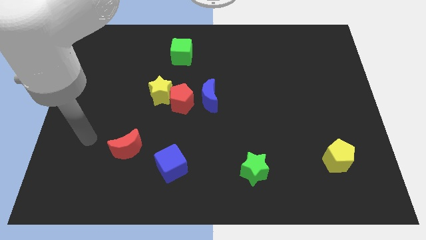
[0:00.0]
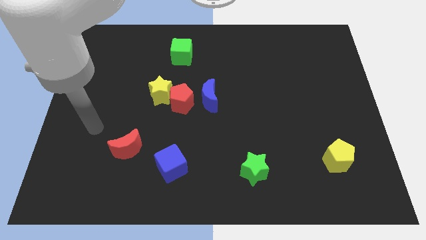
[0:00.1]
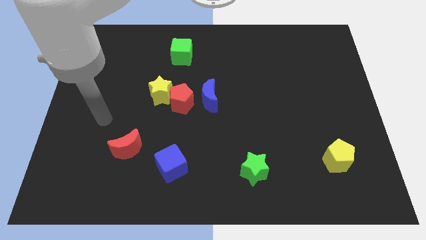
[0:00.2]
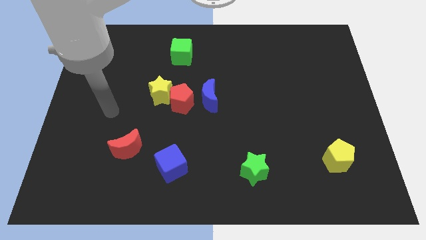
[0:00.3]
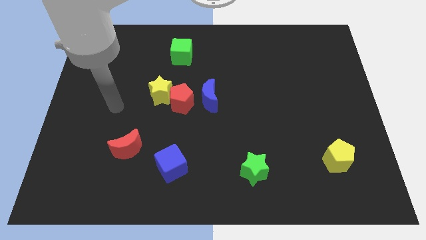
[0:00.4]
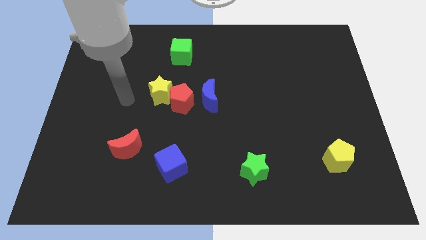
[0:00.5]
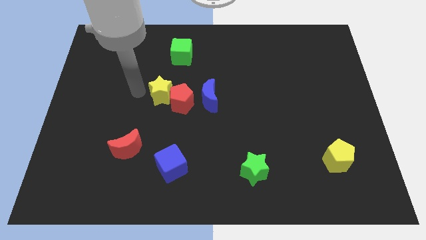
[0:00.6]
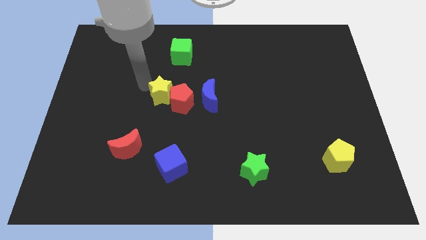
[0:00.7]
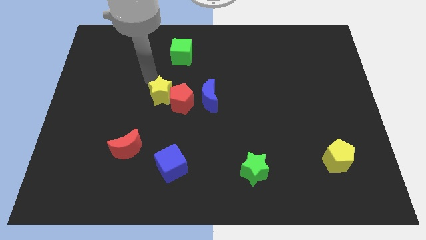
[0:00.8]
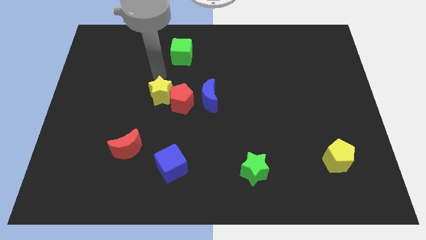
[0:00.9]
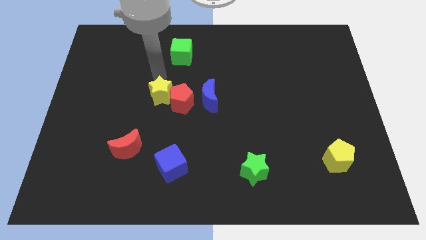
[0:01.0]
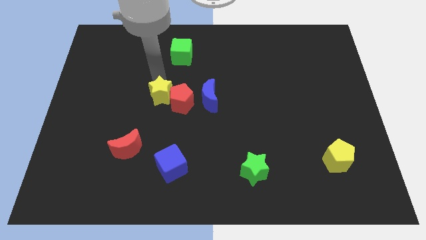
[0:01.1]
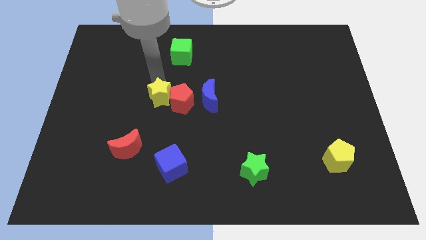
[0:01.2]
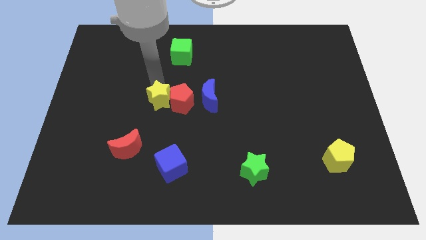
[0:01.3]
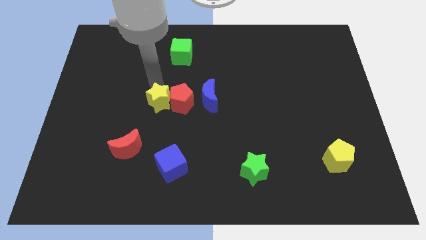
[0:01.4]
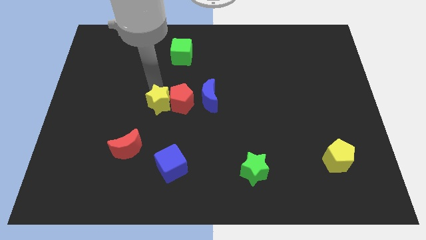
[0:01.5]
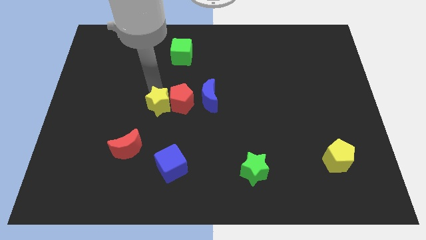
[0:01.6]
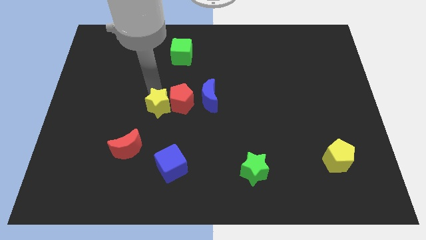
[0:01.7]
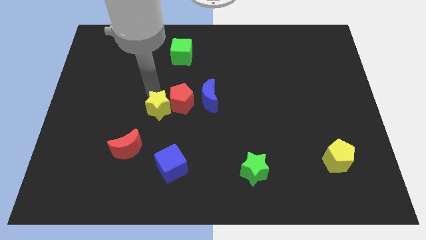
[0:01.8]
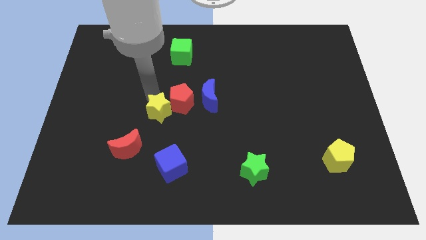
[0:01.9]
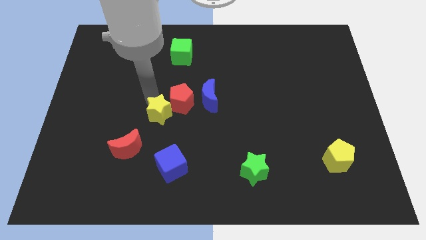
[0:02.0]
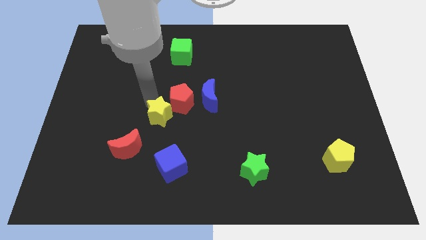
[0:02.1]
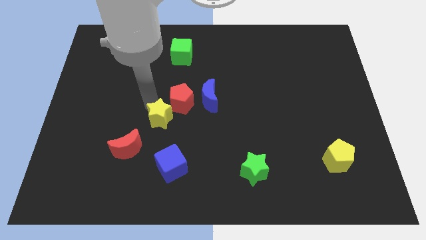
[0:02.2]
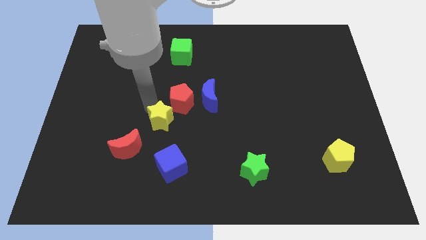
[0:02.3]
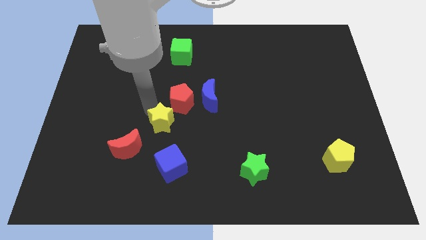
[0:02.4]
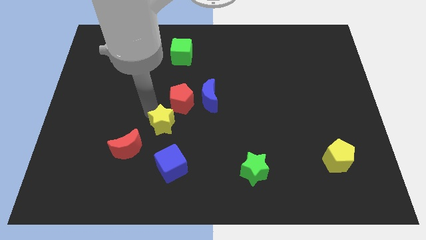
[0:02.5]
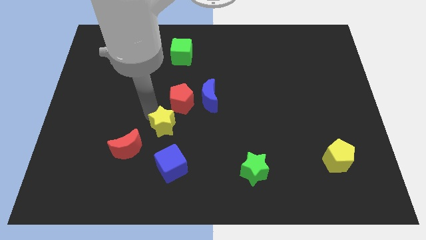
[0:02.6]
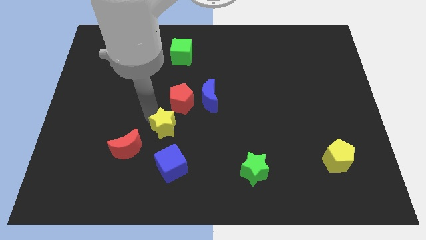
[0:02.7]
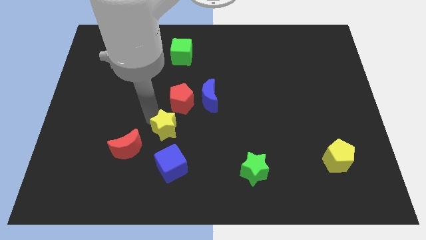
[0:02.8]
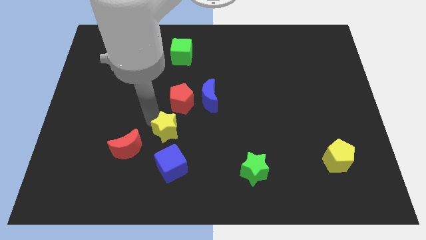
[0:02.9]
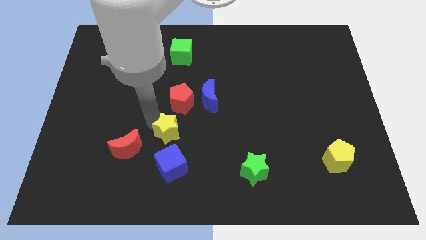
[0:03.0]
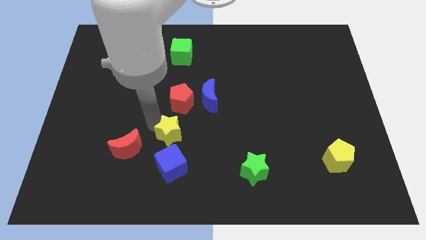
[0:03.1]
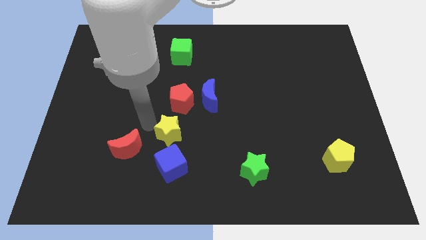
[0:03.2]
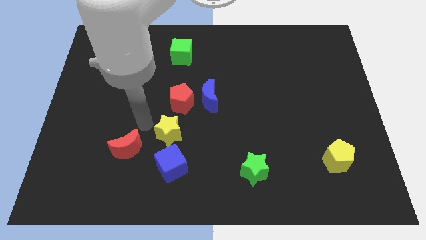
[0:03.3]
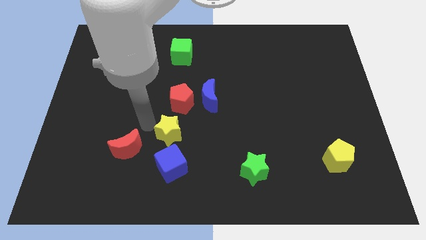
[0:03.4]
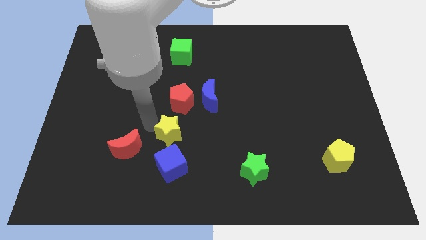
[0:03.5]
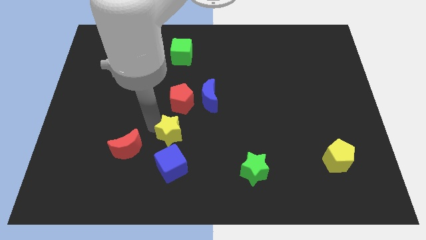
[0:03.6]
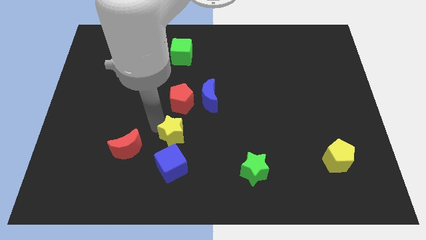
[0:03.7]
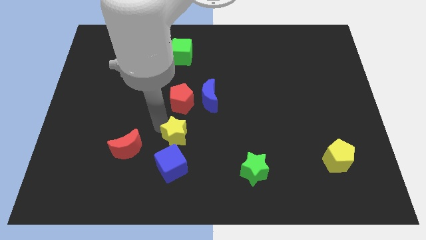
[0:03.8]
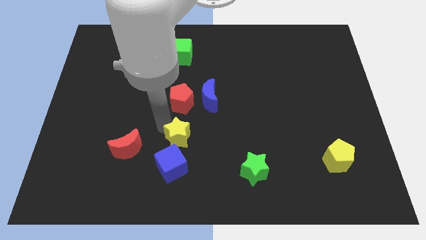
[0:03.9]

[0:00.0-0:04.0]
slide the yellow star to the top right of the blue cube

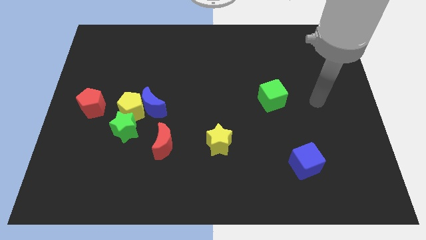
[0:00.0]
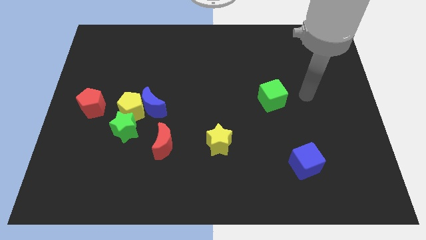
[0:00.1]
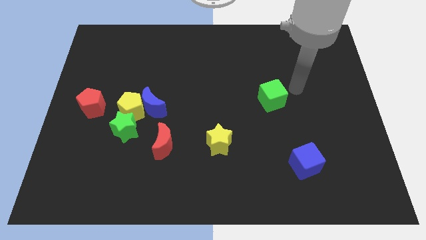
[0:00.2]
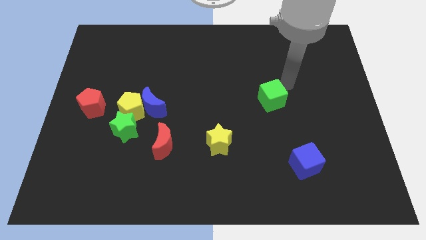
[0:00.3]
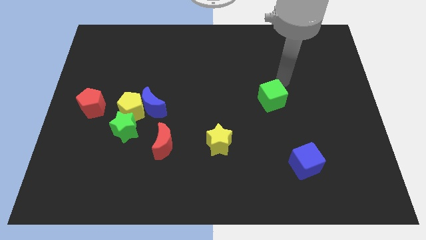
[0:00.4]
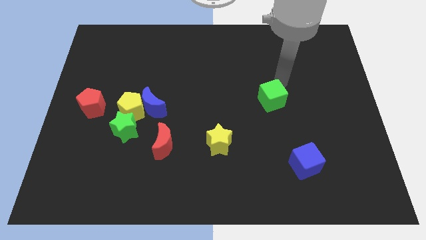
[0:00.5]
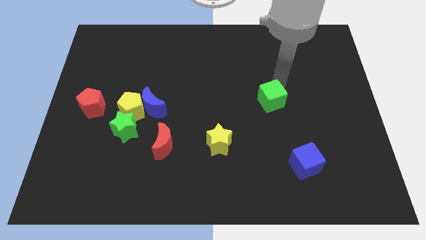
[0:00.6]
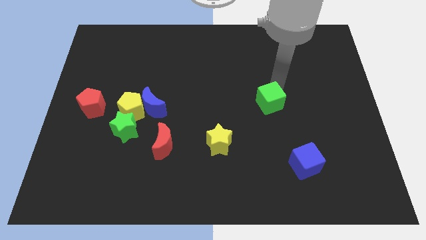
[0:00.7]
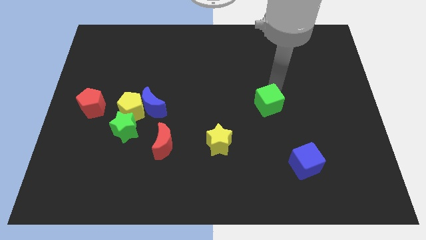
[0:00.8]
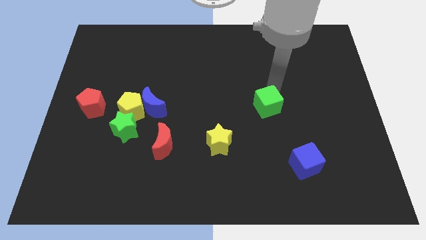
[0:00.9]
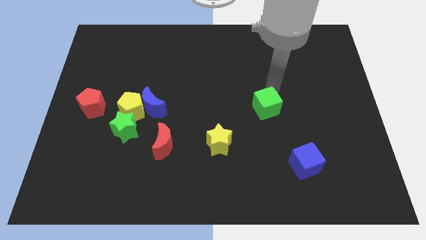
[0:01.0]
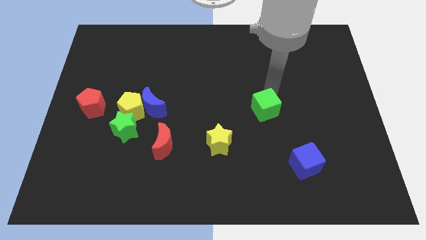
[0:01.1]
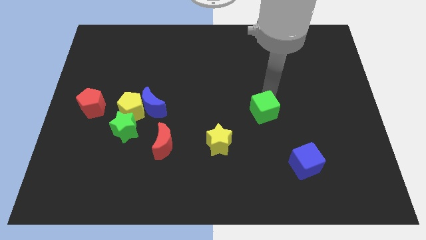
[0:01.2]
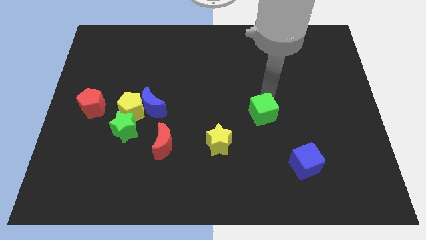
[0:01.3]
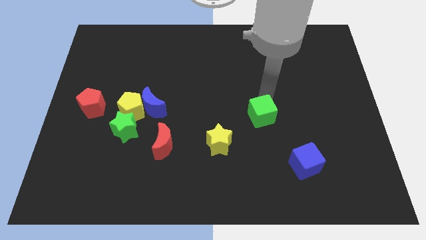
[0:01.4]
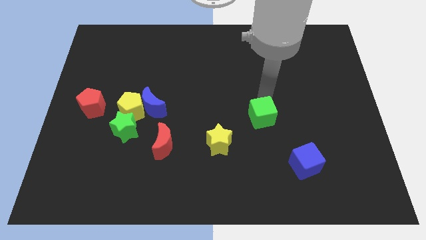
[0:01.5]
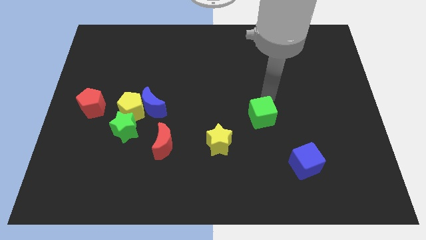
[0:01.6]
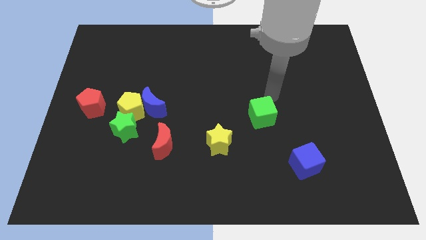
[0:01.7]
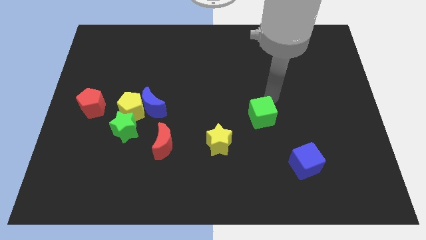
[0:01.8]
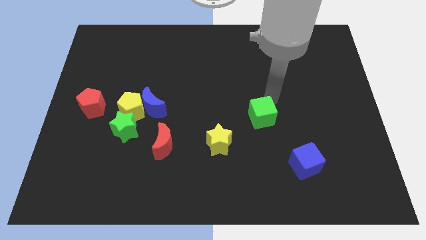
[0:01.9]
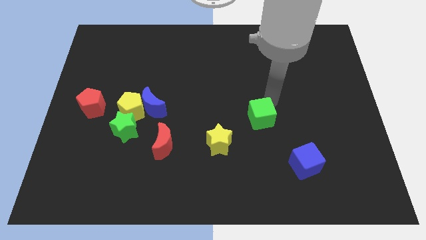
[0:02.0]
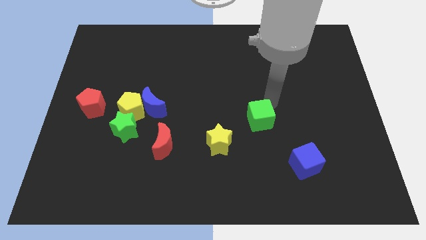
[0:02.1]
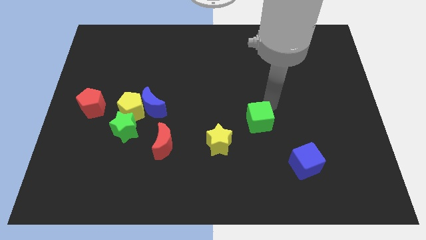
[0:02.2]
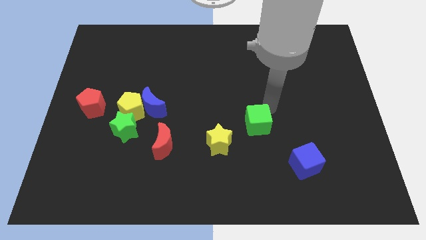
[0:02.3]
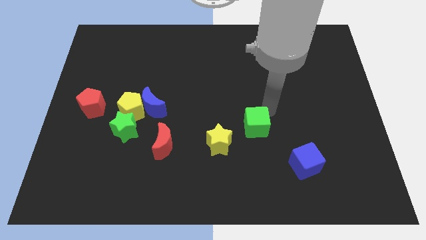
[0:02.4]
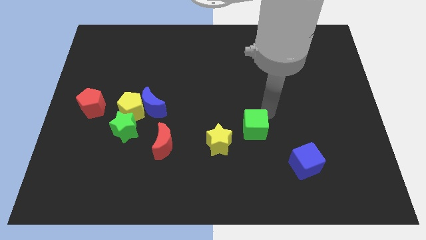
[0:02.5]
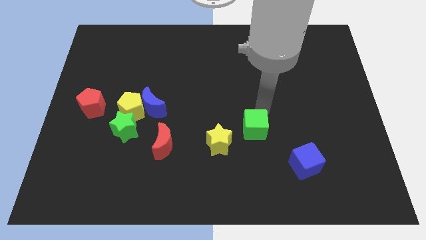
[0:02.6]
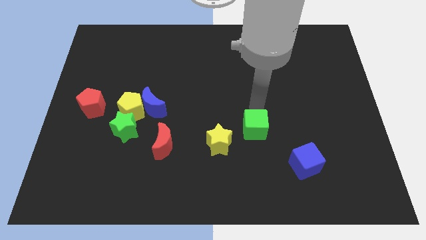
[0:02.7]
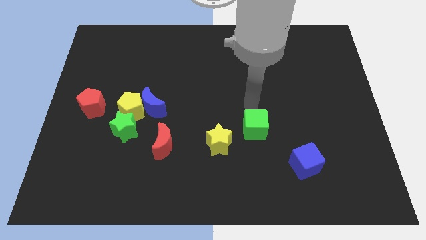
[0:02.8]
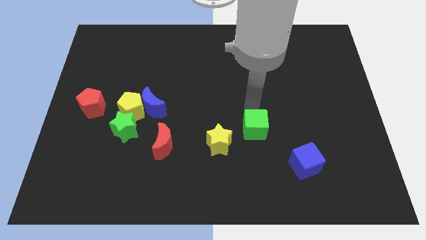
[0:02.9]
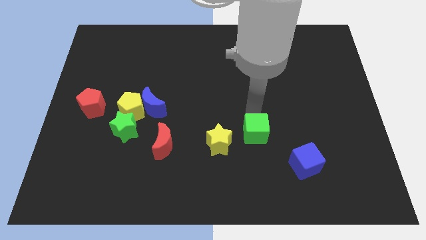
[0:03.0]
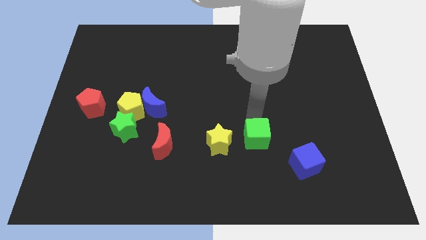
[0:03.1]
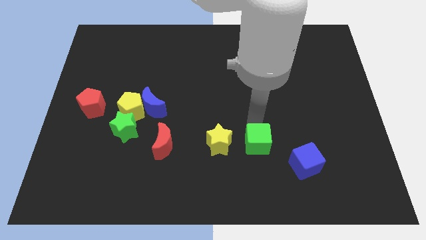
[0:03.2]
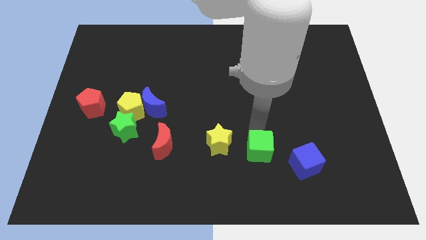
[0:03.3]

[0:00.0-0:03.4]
push the green cube to the left side of the blue cube

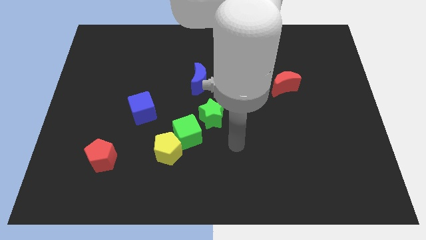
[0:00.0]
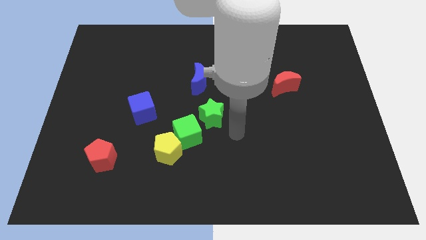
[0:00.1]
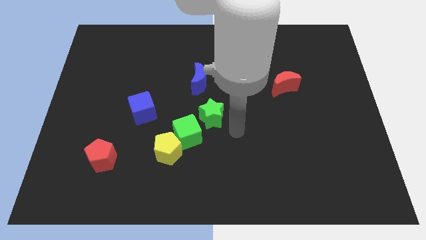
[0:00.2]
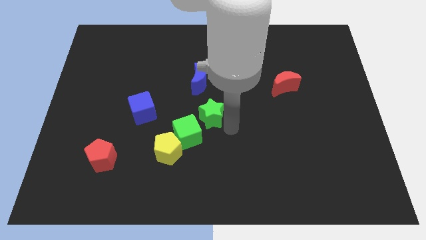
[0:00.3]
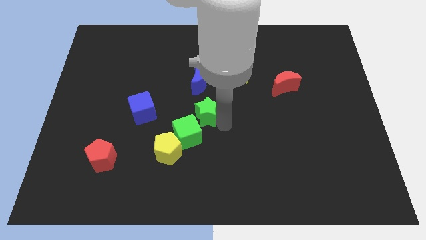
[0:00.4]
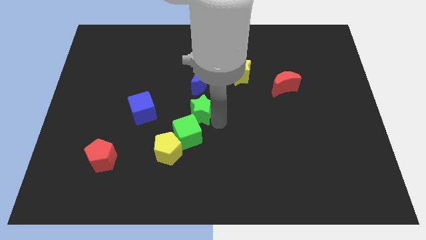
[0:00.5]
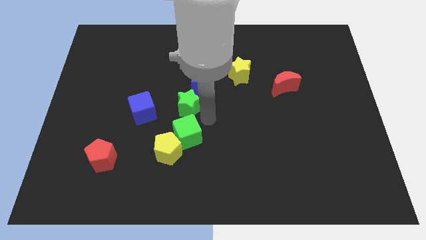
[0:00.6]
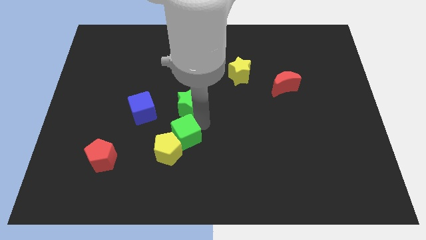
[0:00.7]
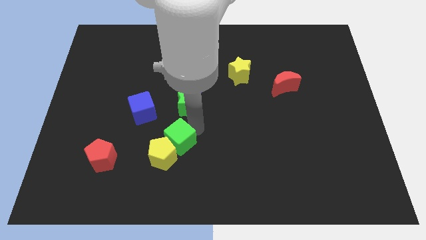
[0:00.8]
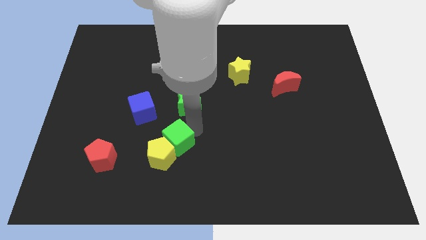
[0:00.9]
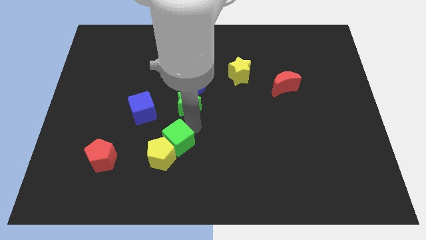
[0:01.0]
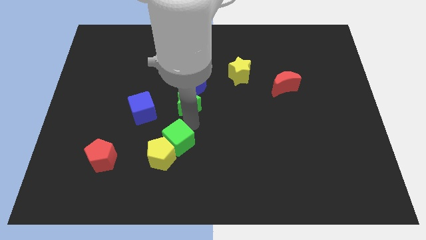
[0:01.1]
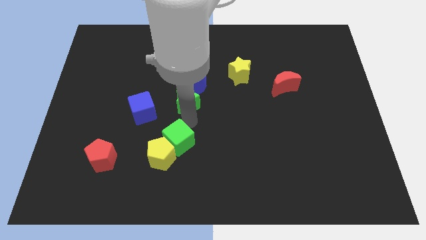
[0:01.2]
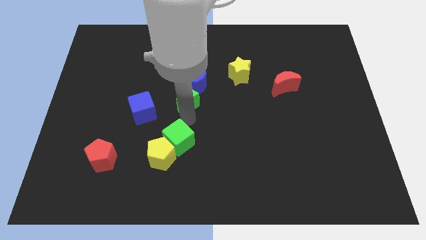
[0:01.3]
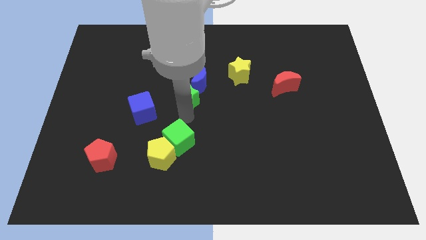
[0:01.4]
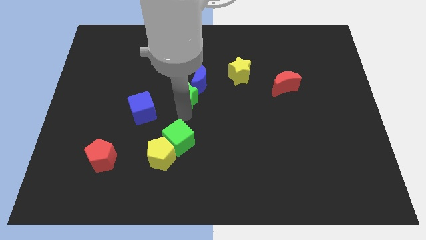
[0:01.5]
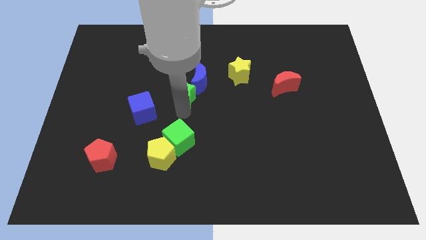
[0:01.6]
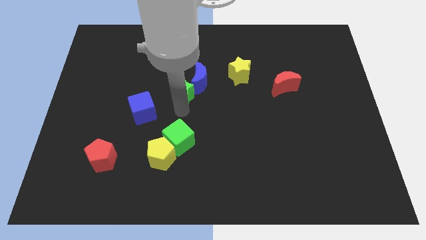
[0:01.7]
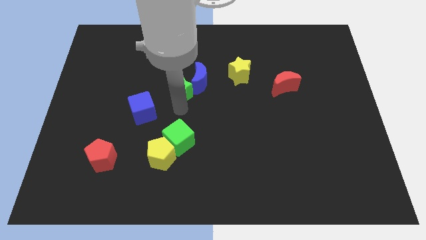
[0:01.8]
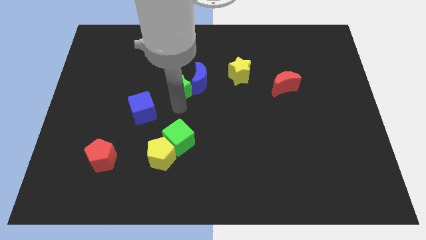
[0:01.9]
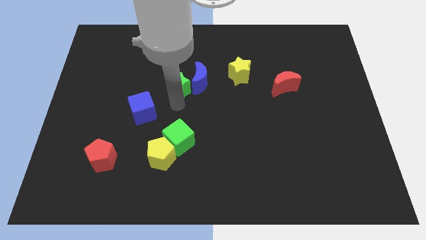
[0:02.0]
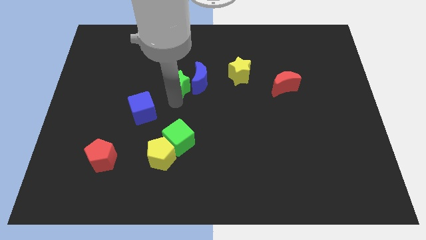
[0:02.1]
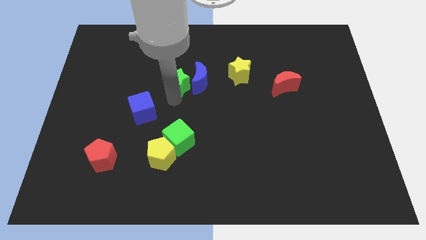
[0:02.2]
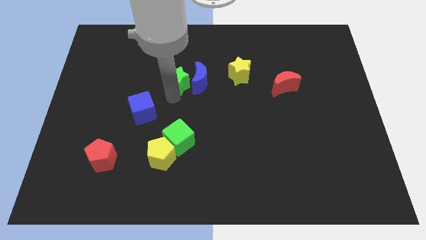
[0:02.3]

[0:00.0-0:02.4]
move the green star diagonally up and to the left of the blue moon
